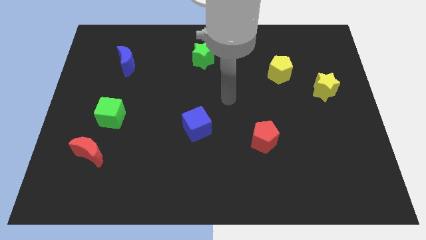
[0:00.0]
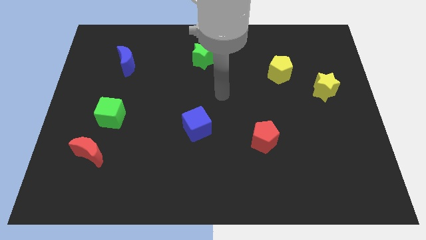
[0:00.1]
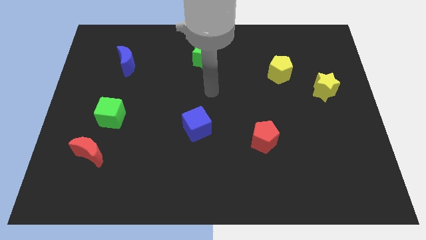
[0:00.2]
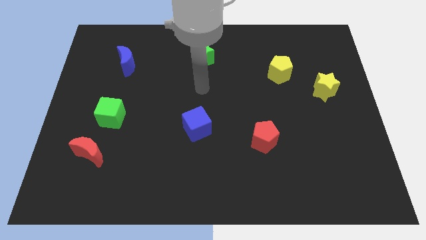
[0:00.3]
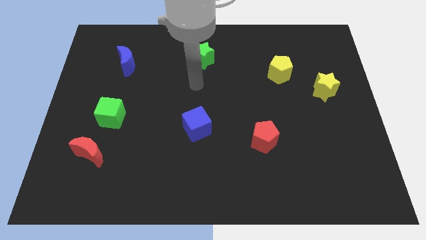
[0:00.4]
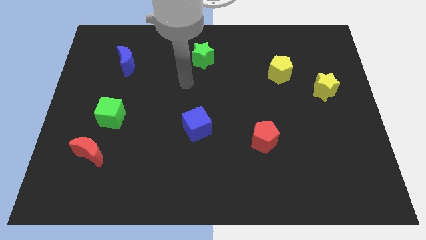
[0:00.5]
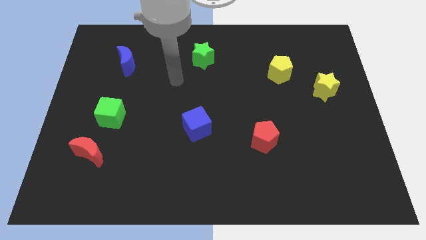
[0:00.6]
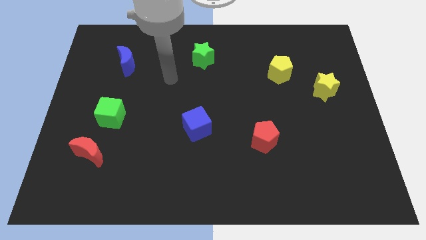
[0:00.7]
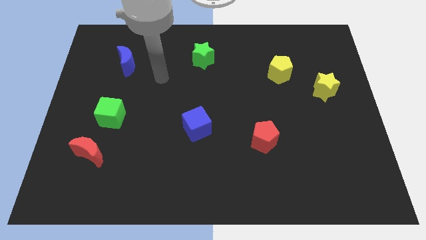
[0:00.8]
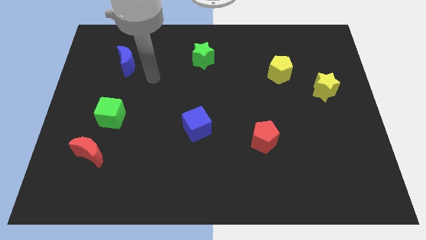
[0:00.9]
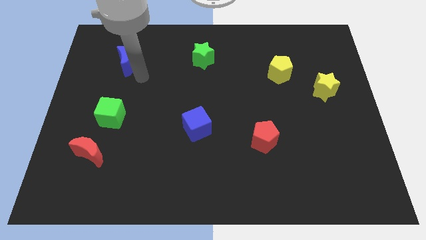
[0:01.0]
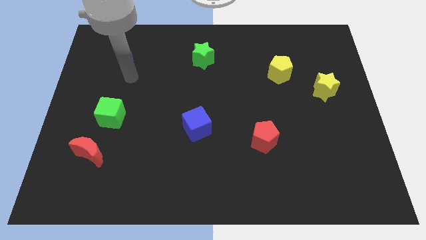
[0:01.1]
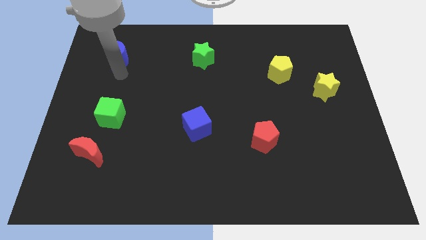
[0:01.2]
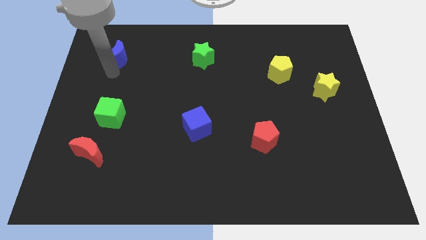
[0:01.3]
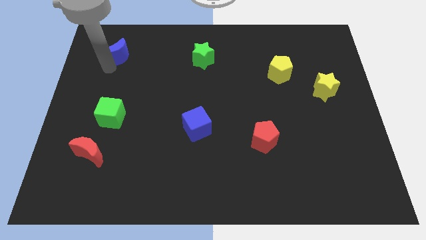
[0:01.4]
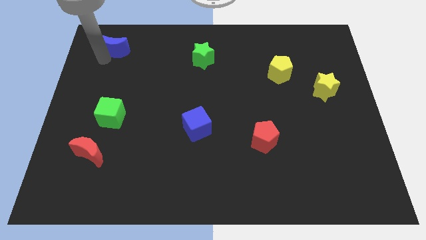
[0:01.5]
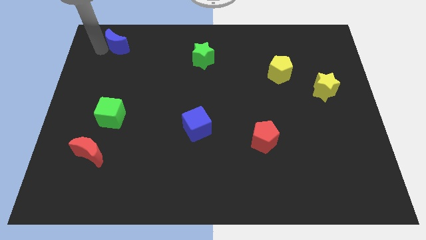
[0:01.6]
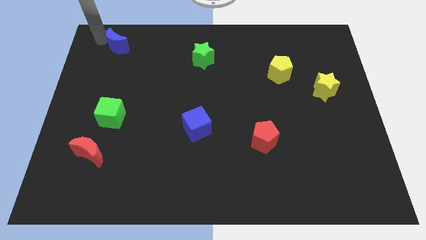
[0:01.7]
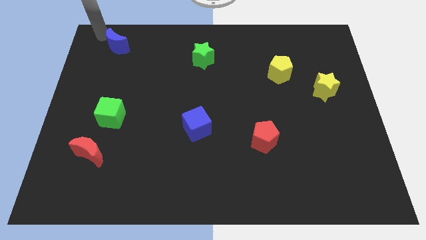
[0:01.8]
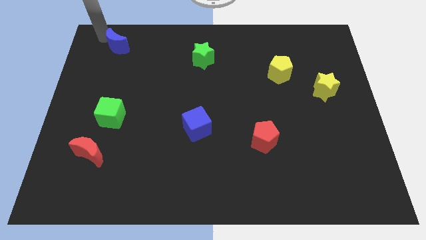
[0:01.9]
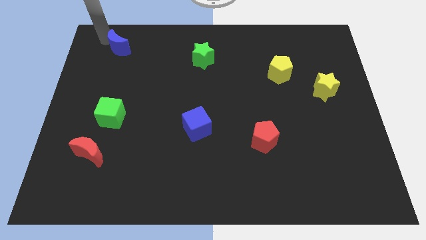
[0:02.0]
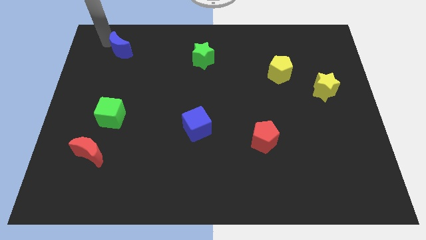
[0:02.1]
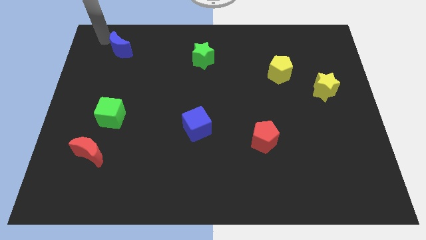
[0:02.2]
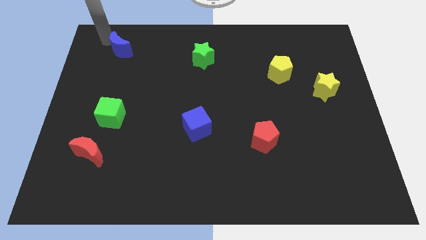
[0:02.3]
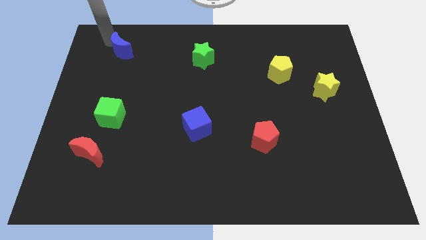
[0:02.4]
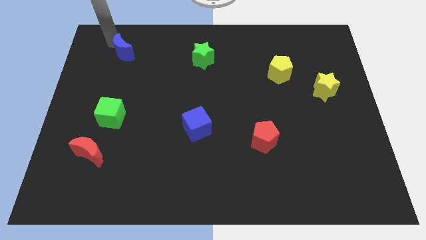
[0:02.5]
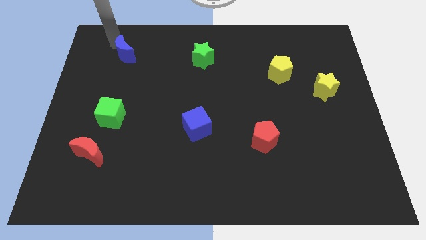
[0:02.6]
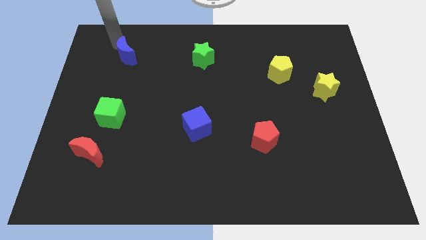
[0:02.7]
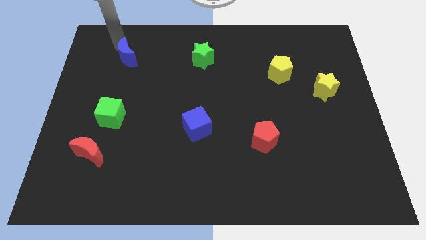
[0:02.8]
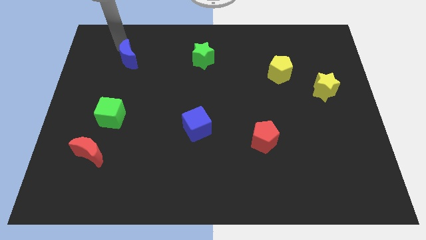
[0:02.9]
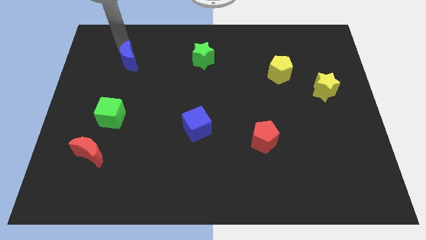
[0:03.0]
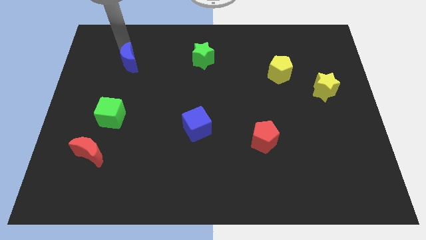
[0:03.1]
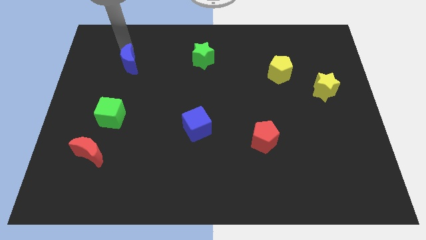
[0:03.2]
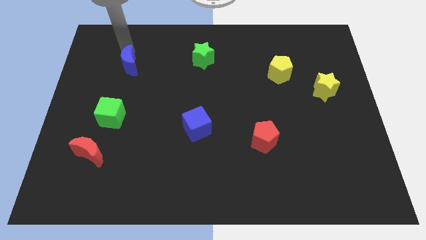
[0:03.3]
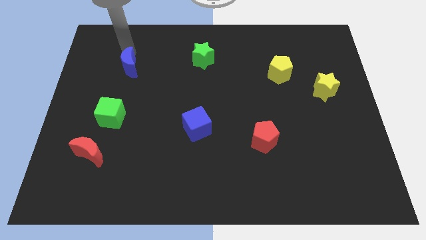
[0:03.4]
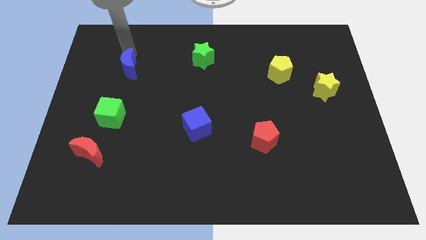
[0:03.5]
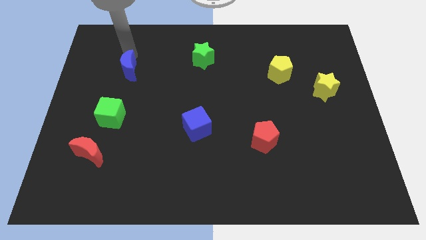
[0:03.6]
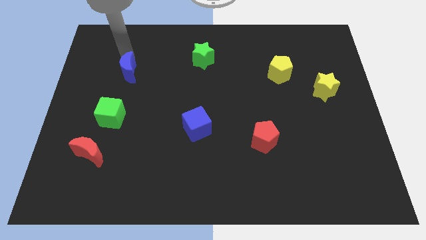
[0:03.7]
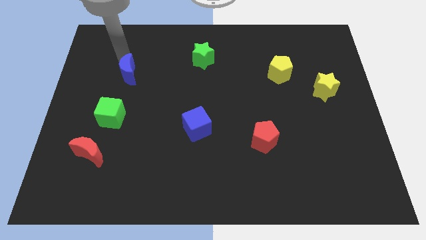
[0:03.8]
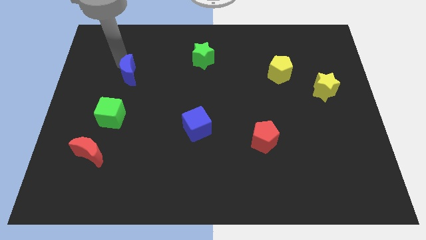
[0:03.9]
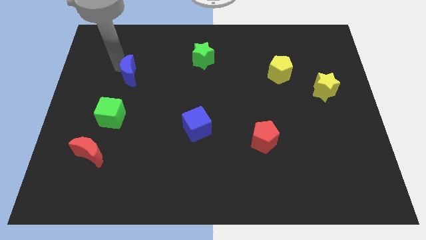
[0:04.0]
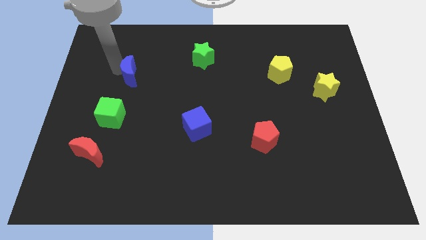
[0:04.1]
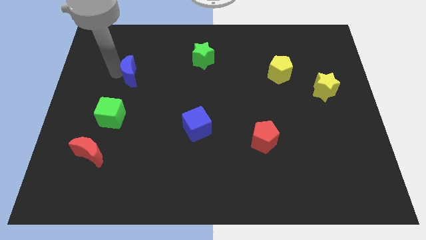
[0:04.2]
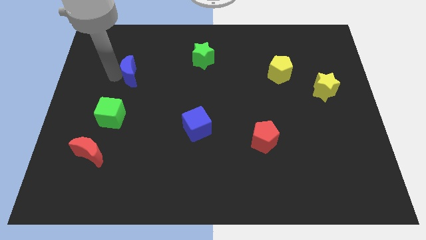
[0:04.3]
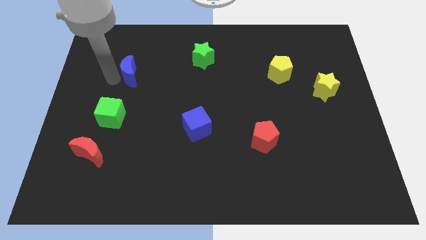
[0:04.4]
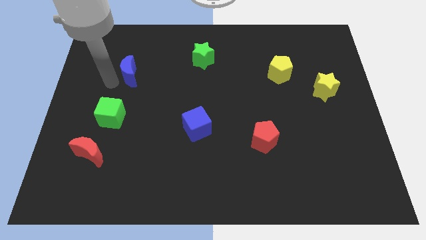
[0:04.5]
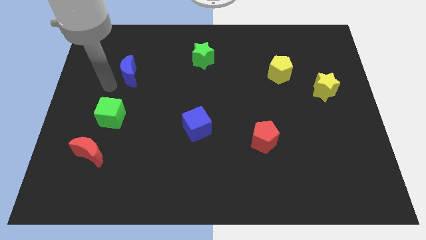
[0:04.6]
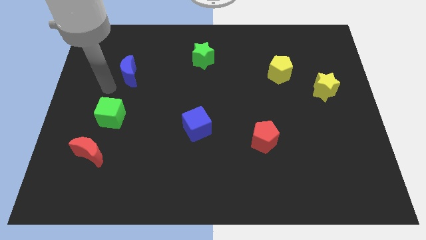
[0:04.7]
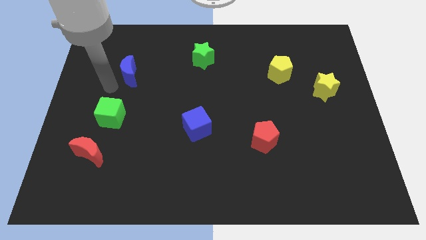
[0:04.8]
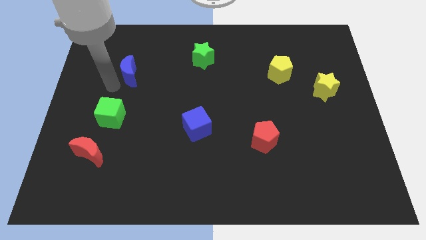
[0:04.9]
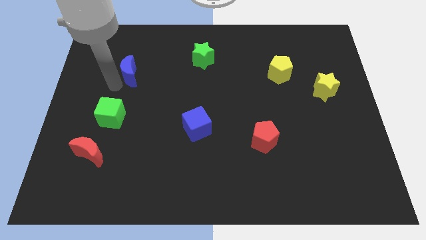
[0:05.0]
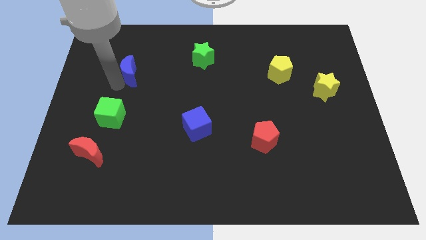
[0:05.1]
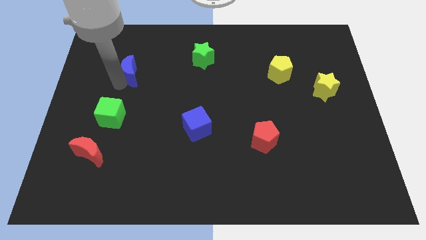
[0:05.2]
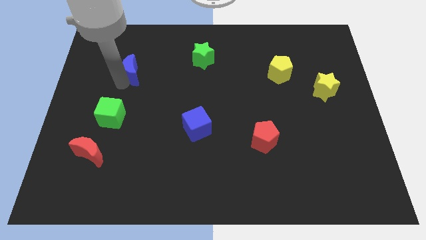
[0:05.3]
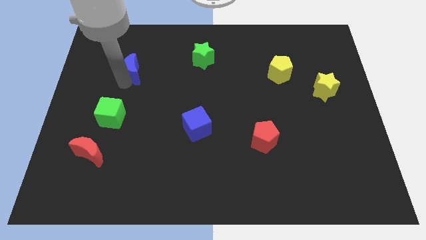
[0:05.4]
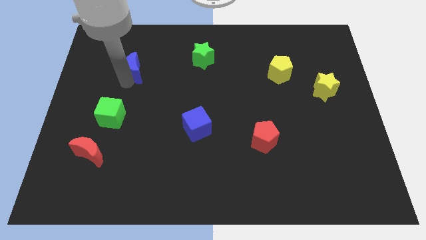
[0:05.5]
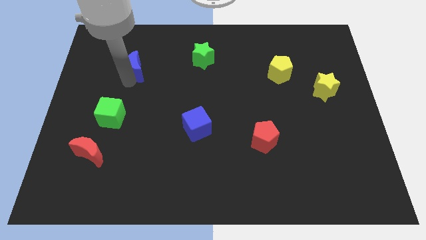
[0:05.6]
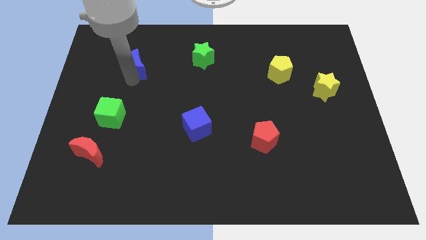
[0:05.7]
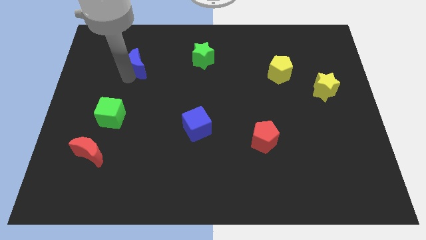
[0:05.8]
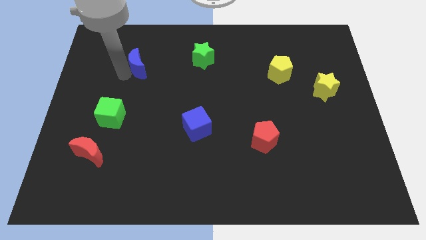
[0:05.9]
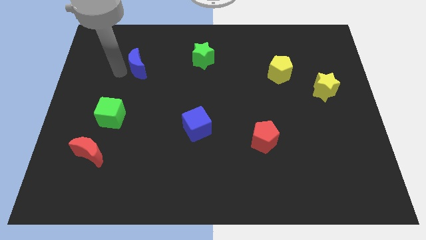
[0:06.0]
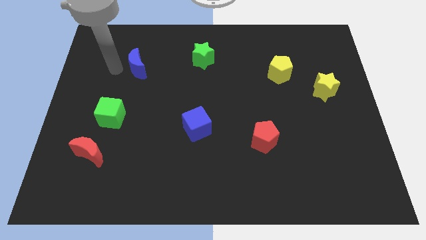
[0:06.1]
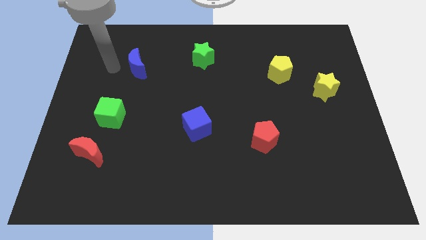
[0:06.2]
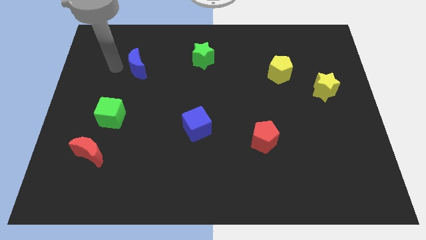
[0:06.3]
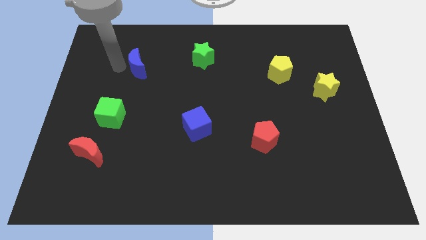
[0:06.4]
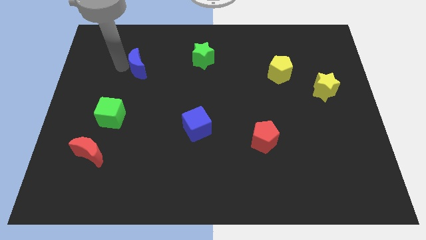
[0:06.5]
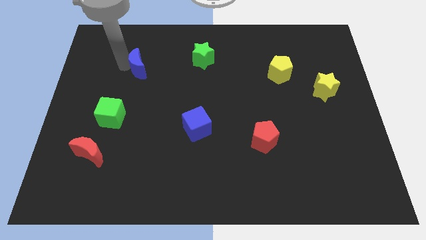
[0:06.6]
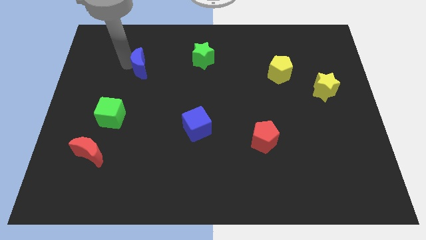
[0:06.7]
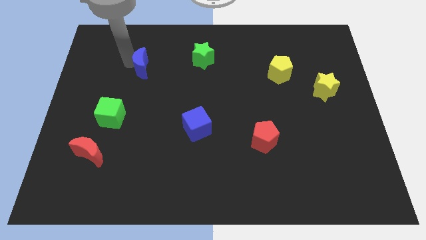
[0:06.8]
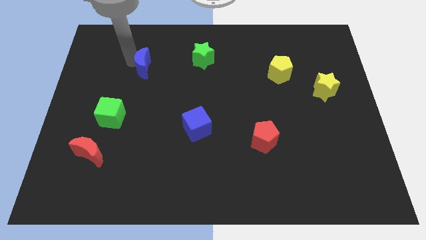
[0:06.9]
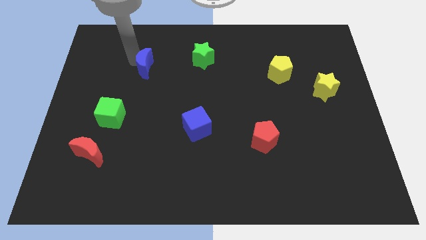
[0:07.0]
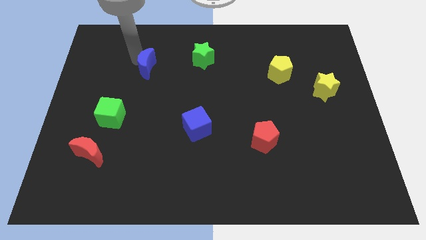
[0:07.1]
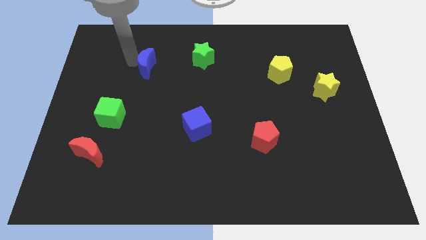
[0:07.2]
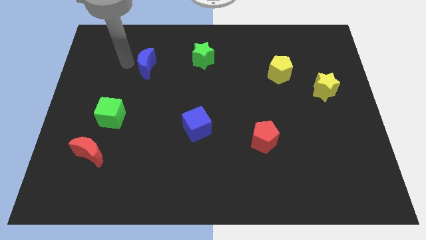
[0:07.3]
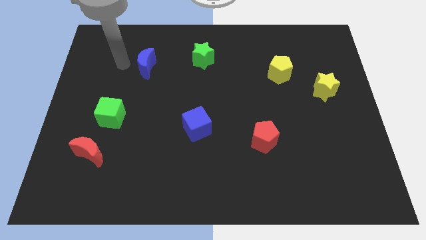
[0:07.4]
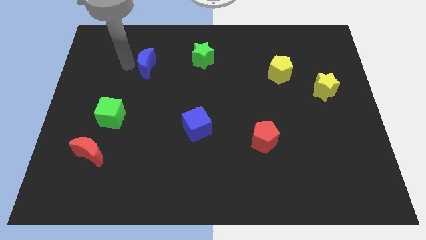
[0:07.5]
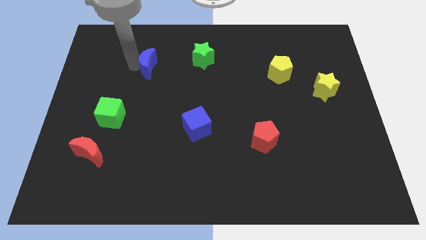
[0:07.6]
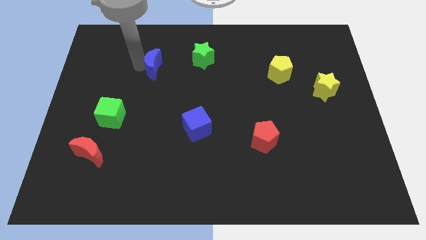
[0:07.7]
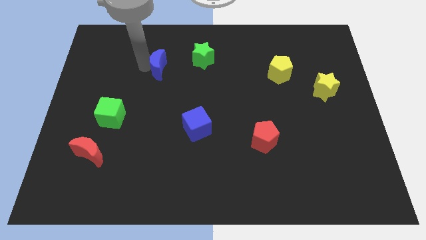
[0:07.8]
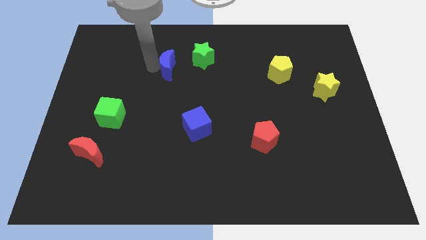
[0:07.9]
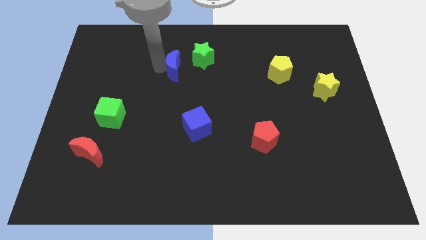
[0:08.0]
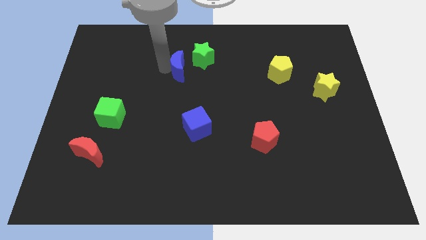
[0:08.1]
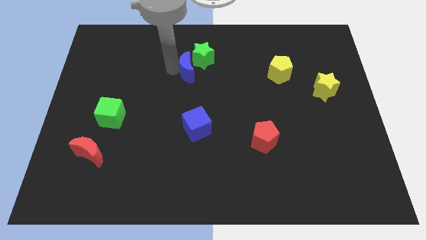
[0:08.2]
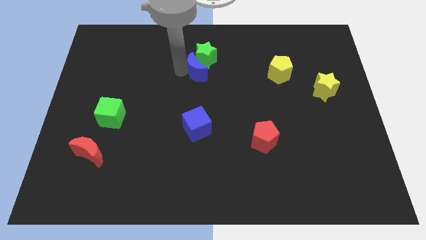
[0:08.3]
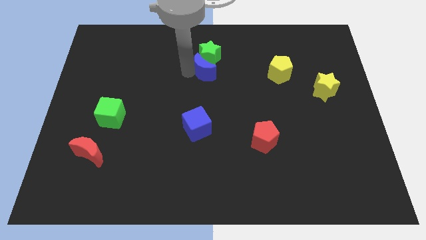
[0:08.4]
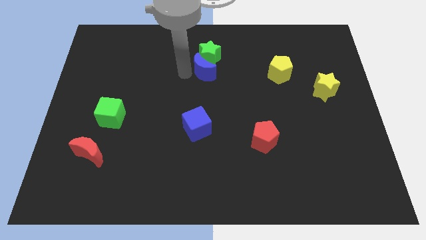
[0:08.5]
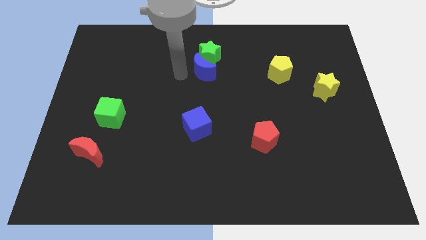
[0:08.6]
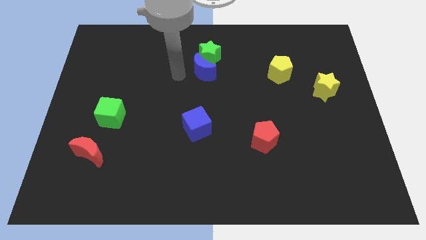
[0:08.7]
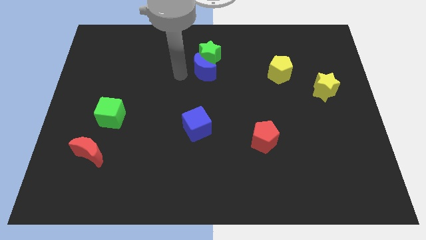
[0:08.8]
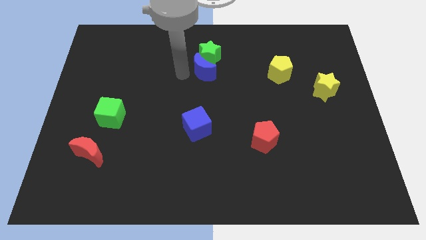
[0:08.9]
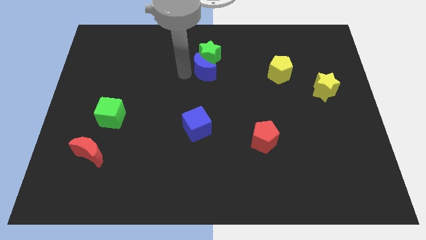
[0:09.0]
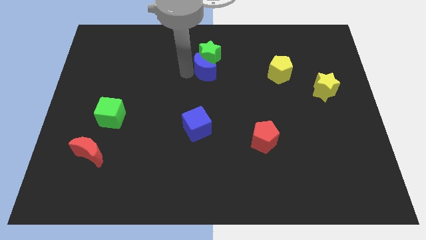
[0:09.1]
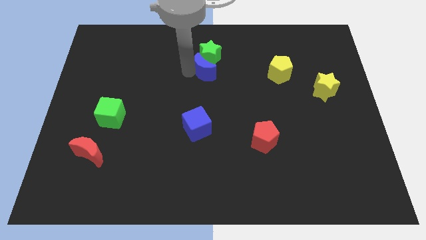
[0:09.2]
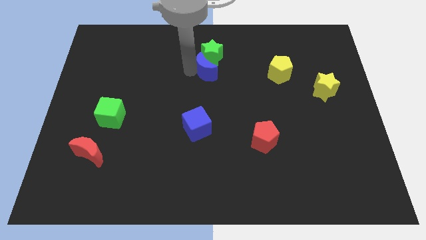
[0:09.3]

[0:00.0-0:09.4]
move the blue moon right
